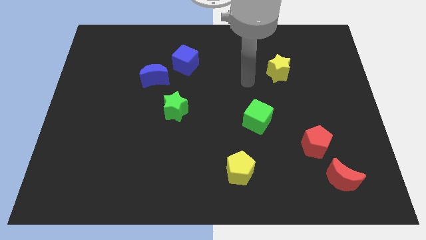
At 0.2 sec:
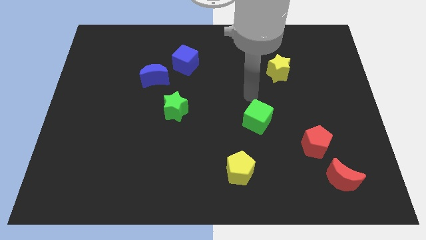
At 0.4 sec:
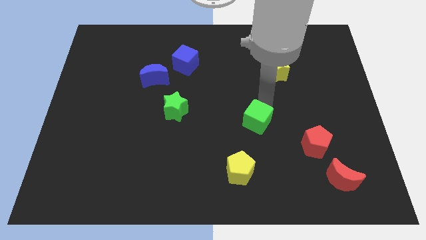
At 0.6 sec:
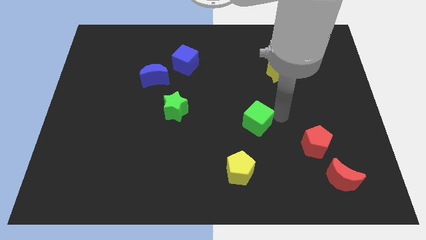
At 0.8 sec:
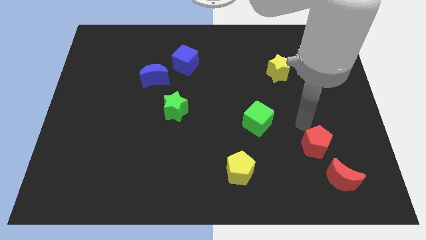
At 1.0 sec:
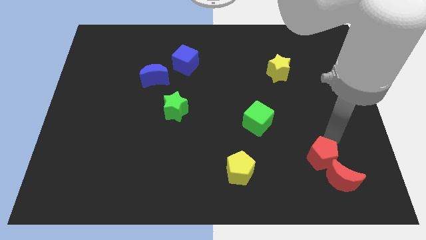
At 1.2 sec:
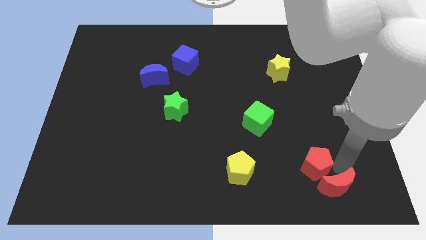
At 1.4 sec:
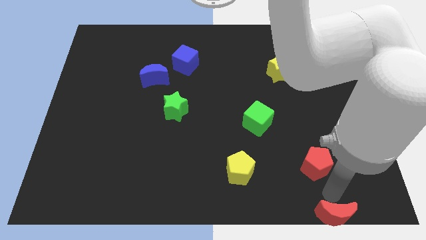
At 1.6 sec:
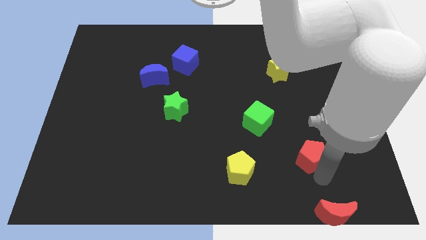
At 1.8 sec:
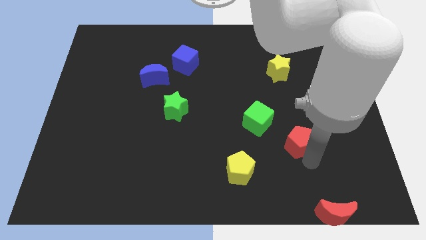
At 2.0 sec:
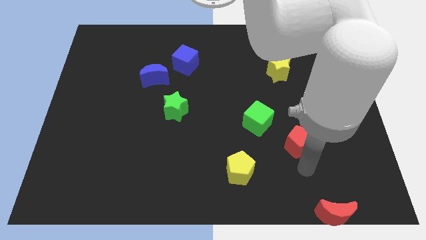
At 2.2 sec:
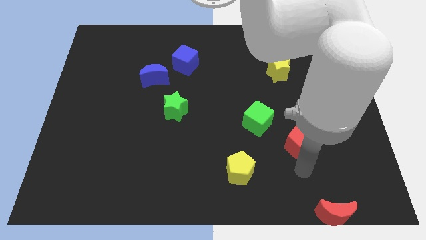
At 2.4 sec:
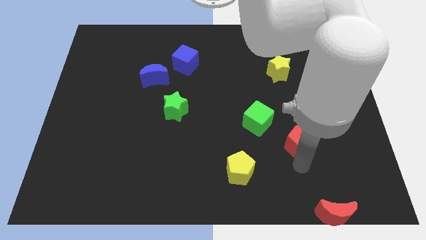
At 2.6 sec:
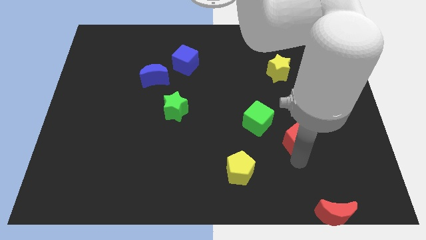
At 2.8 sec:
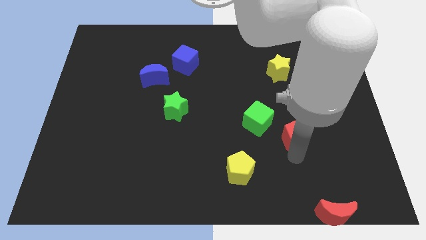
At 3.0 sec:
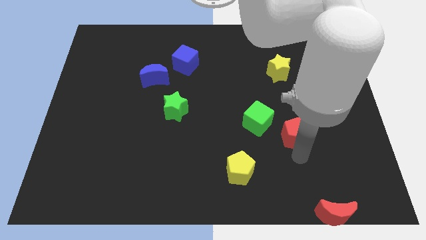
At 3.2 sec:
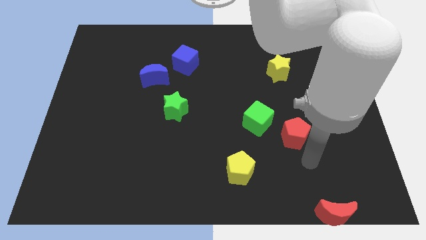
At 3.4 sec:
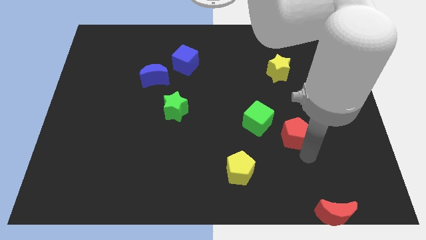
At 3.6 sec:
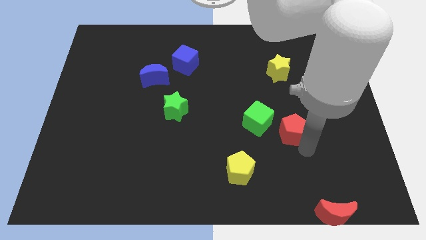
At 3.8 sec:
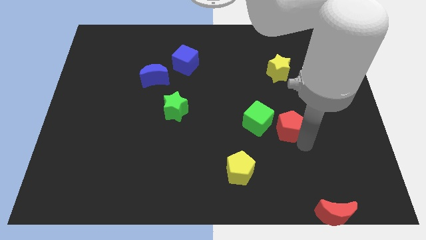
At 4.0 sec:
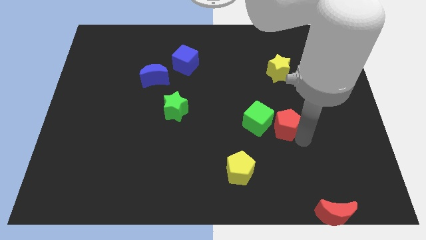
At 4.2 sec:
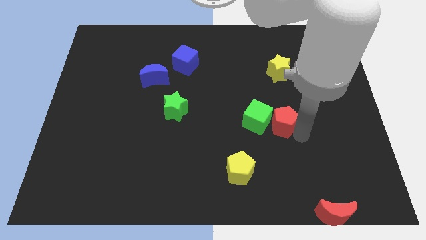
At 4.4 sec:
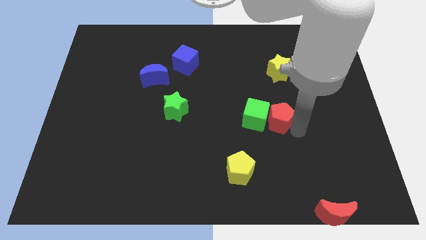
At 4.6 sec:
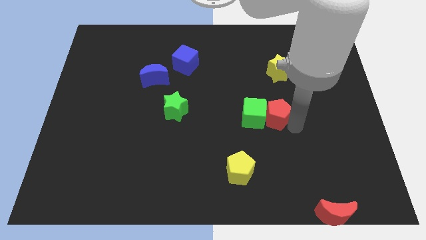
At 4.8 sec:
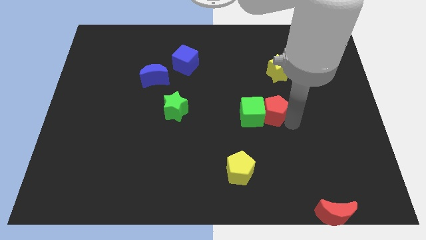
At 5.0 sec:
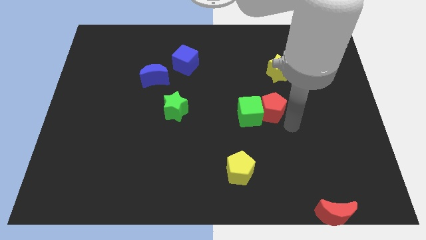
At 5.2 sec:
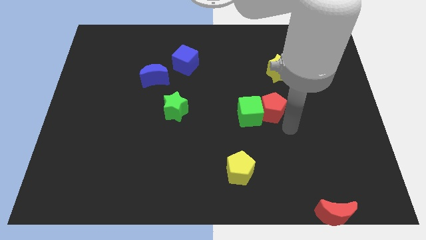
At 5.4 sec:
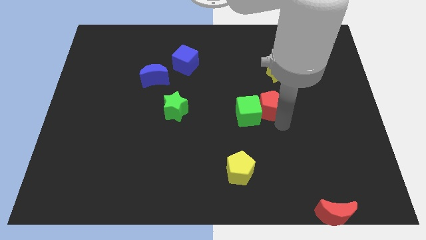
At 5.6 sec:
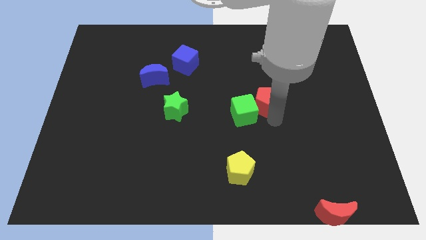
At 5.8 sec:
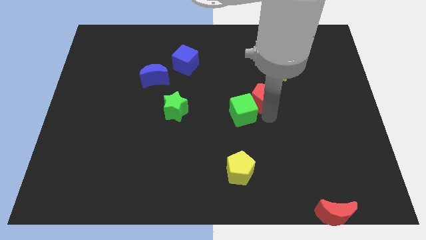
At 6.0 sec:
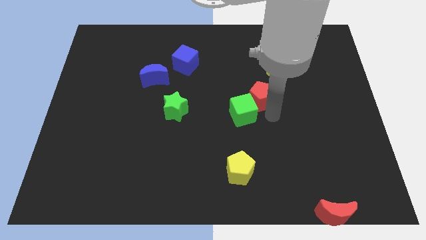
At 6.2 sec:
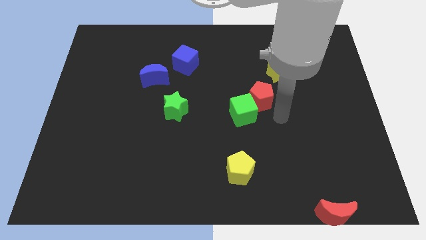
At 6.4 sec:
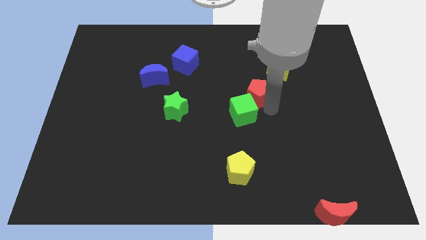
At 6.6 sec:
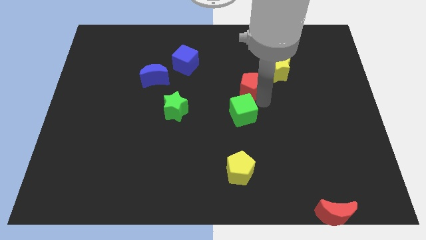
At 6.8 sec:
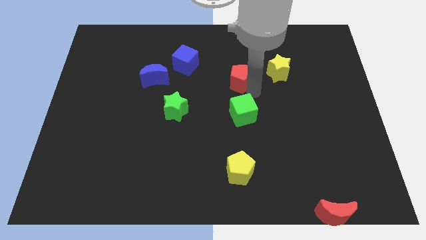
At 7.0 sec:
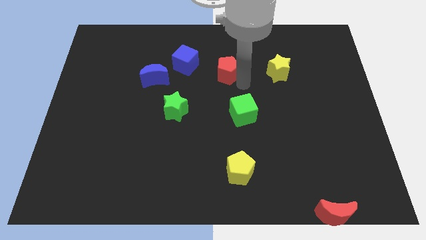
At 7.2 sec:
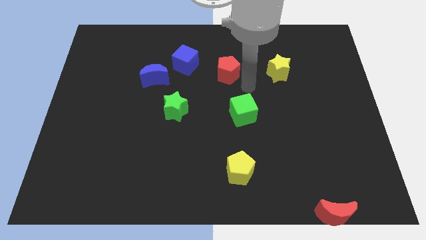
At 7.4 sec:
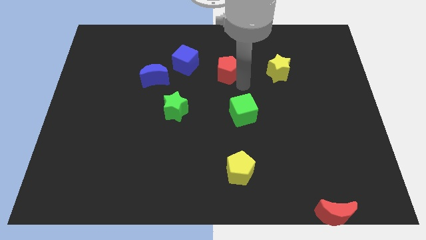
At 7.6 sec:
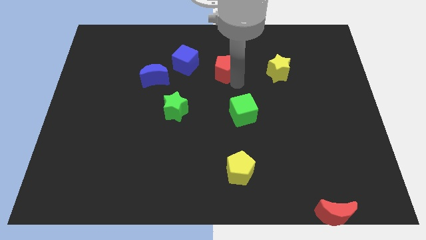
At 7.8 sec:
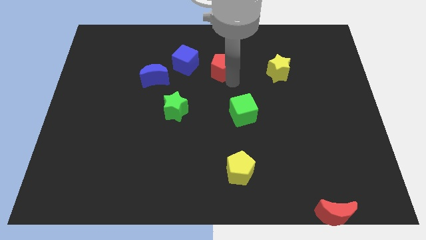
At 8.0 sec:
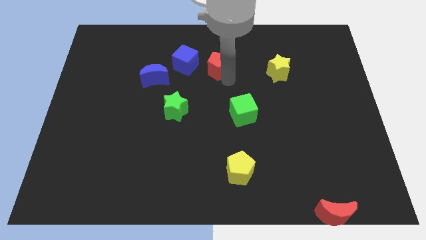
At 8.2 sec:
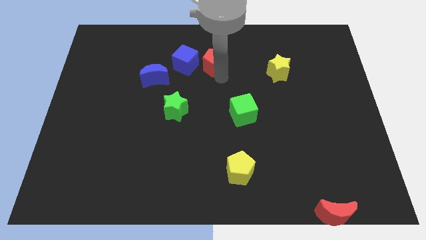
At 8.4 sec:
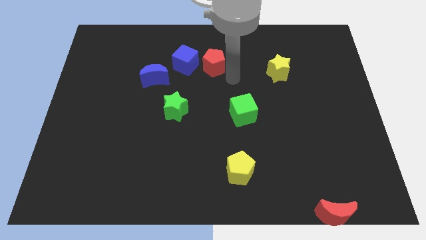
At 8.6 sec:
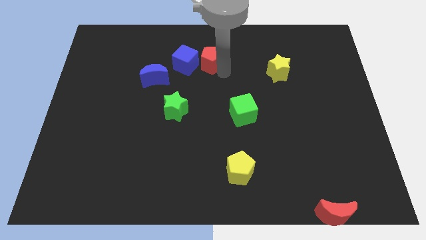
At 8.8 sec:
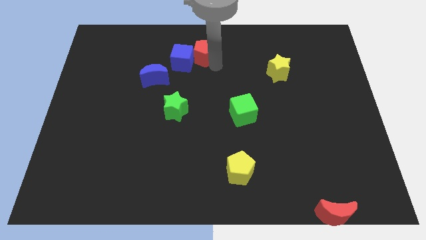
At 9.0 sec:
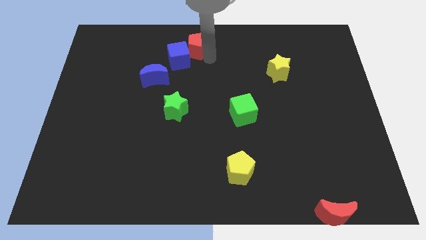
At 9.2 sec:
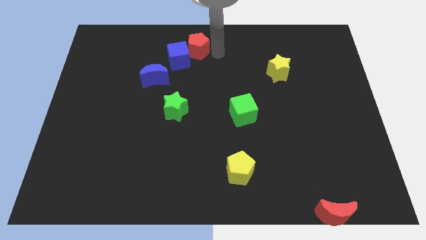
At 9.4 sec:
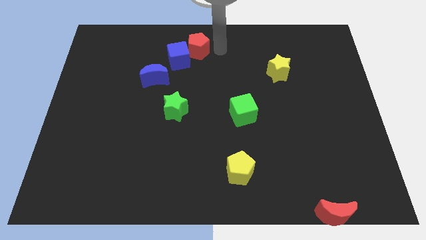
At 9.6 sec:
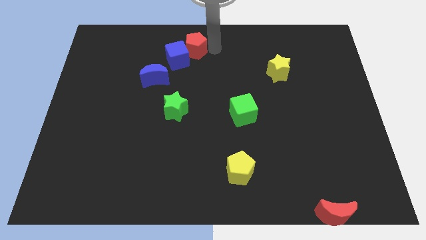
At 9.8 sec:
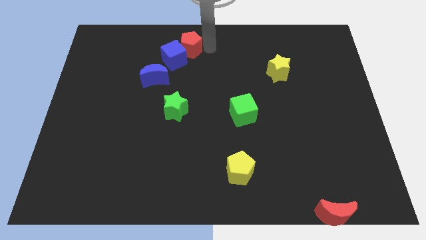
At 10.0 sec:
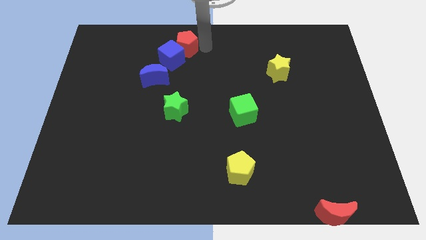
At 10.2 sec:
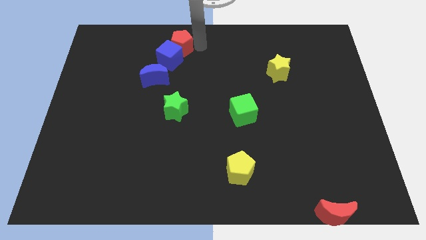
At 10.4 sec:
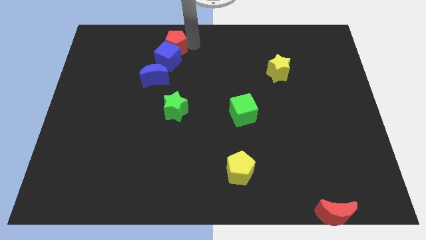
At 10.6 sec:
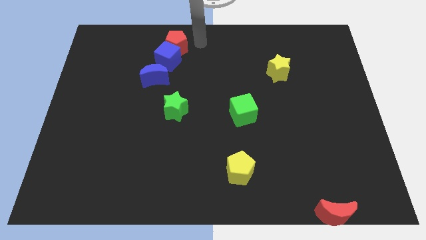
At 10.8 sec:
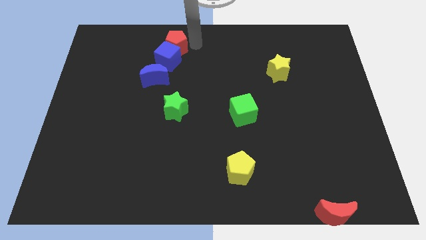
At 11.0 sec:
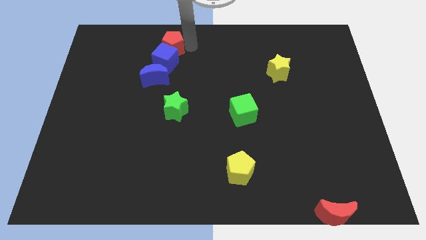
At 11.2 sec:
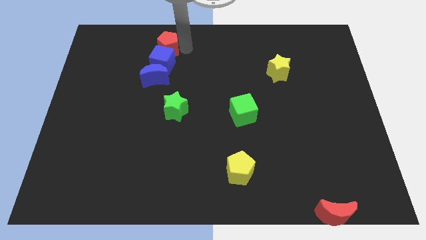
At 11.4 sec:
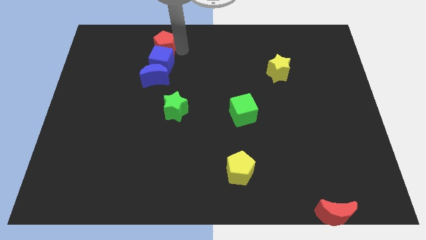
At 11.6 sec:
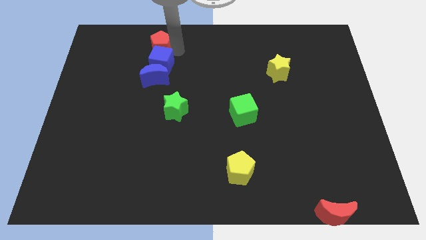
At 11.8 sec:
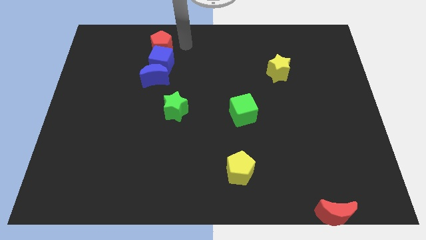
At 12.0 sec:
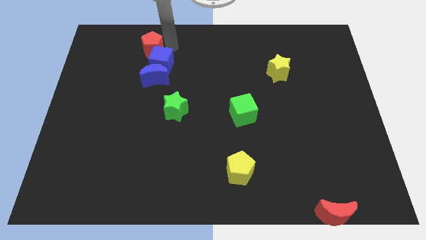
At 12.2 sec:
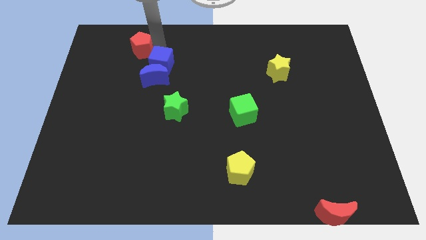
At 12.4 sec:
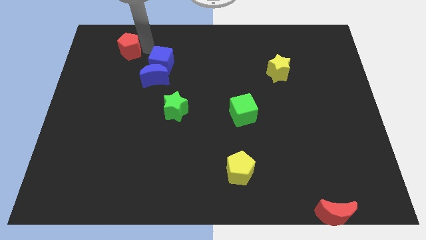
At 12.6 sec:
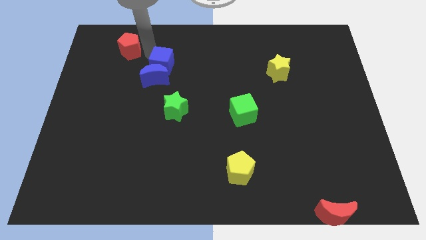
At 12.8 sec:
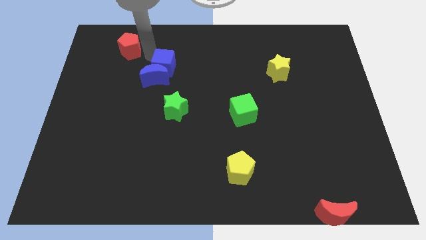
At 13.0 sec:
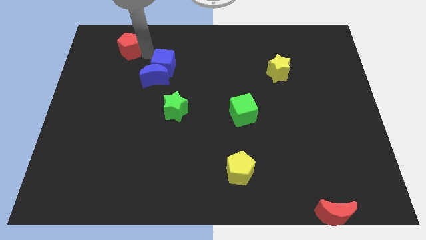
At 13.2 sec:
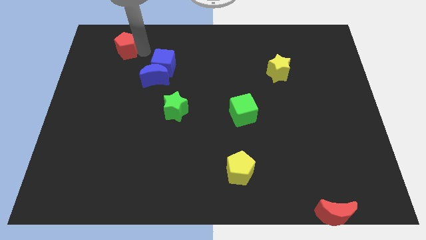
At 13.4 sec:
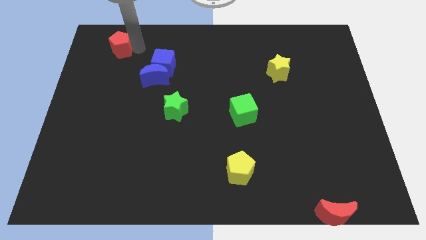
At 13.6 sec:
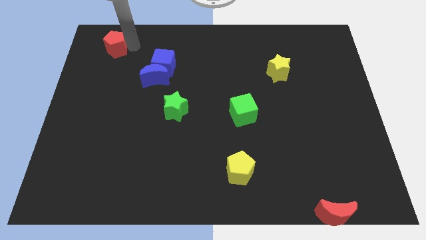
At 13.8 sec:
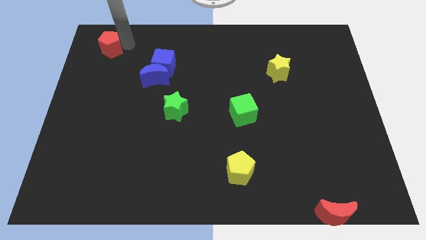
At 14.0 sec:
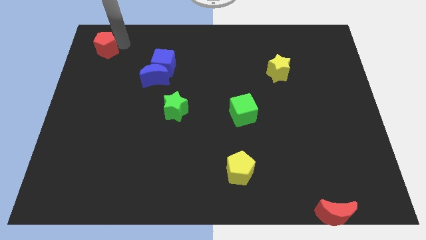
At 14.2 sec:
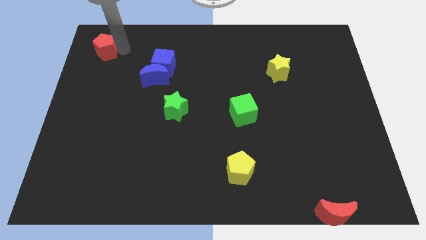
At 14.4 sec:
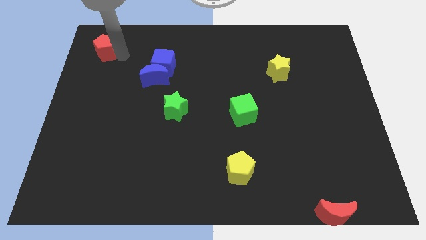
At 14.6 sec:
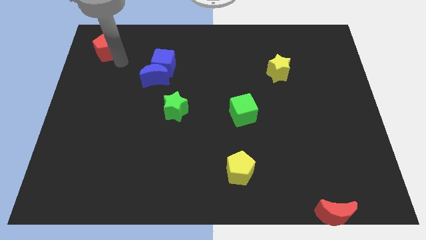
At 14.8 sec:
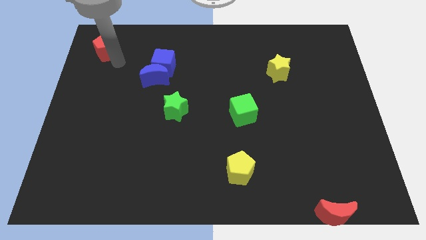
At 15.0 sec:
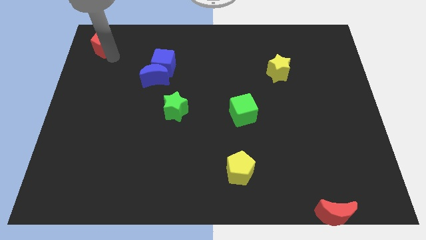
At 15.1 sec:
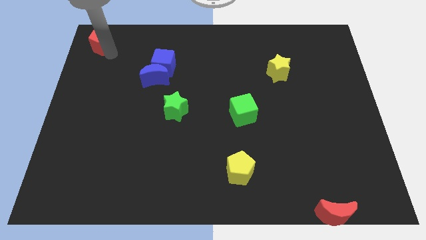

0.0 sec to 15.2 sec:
push the red pentagon to the top left corner
